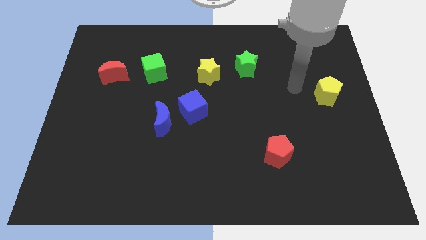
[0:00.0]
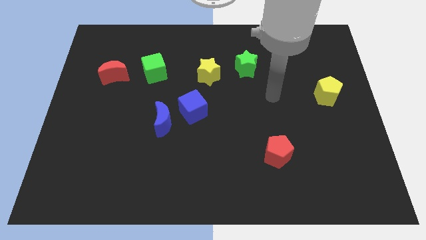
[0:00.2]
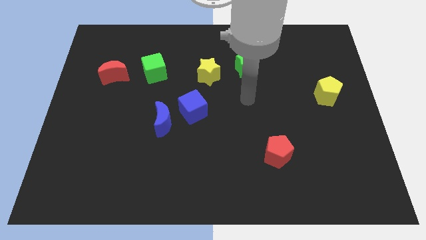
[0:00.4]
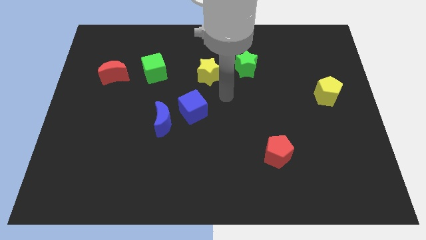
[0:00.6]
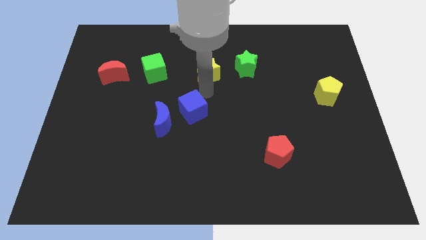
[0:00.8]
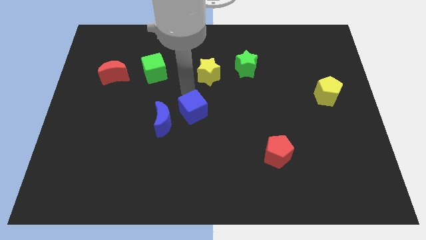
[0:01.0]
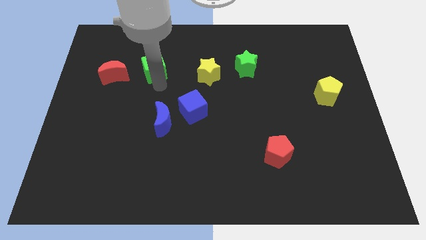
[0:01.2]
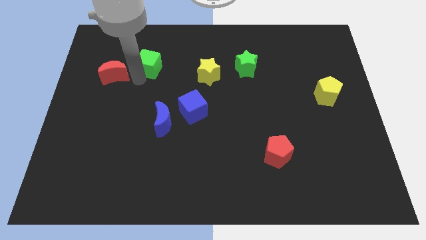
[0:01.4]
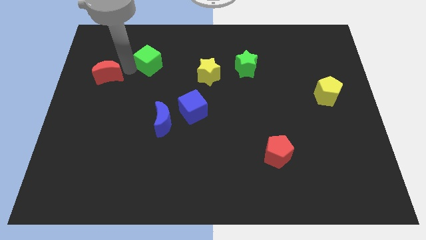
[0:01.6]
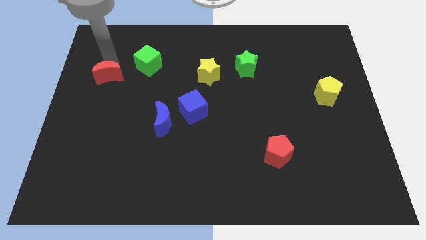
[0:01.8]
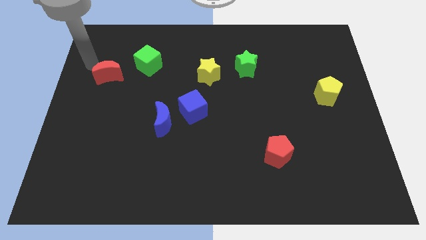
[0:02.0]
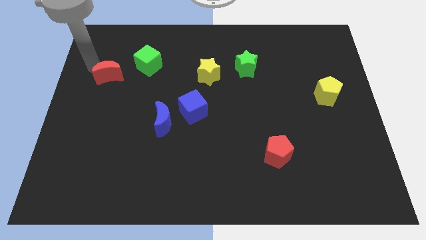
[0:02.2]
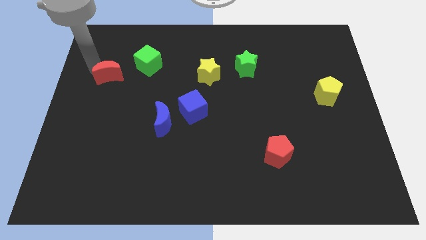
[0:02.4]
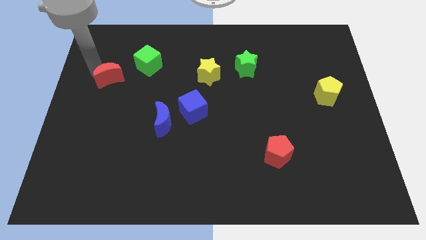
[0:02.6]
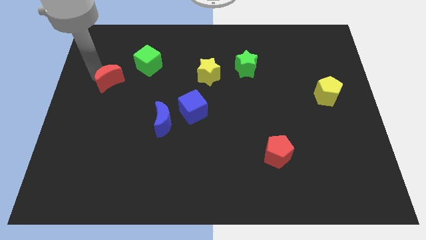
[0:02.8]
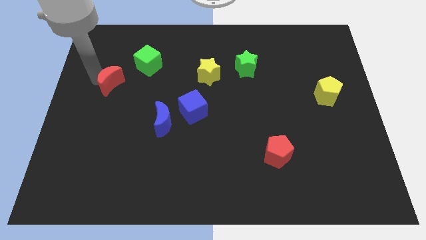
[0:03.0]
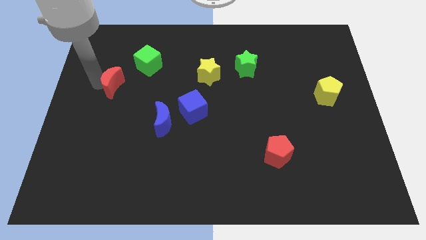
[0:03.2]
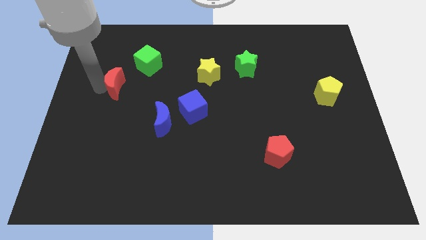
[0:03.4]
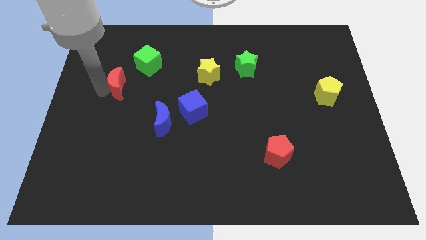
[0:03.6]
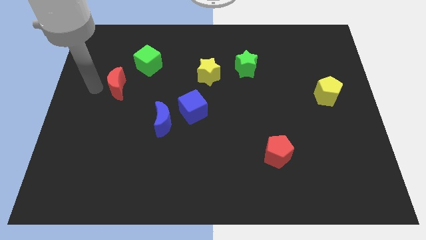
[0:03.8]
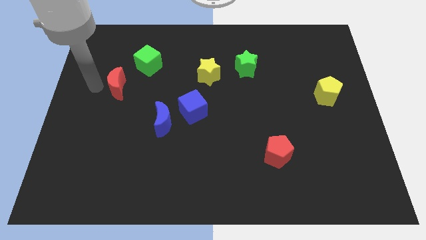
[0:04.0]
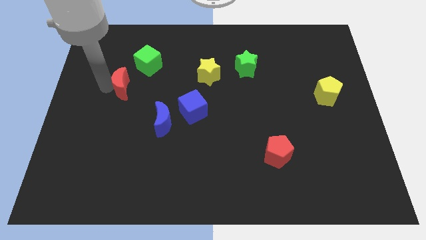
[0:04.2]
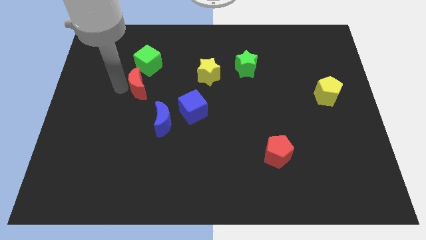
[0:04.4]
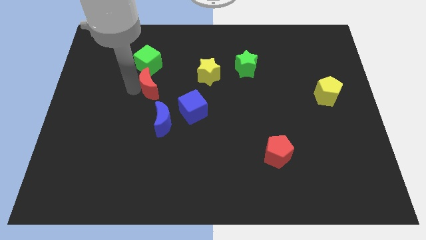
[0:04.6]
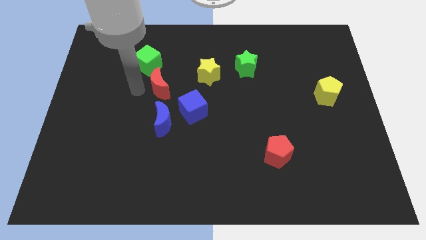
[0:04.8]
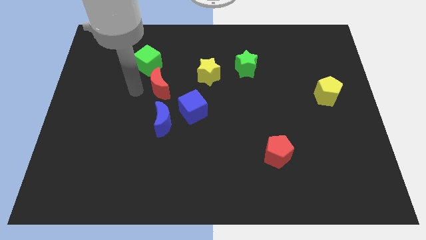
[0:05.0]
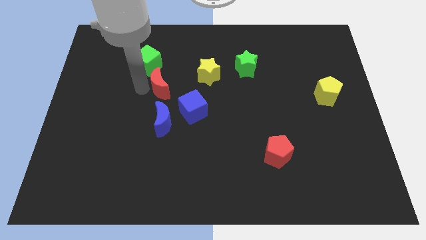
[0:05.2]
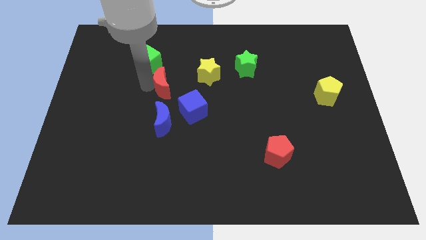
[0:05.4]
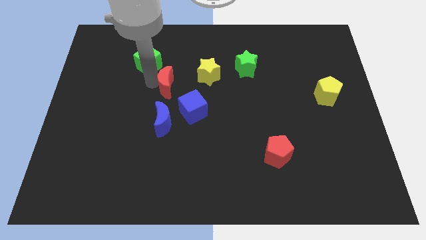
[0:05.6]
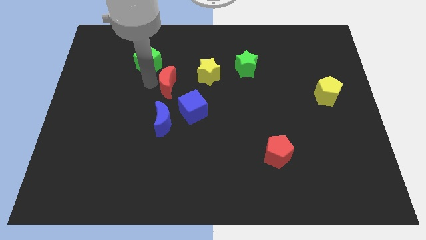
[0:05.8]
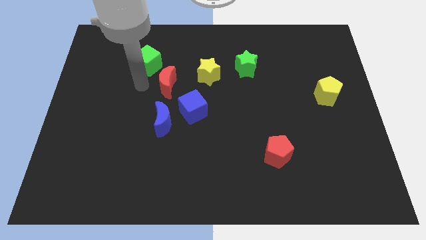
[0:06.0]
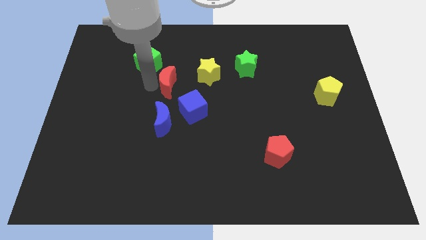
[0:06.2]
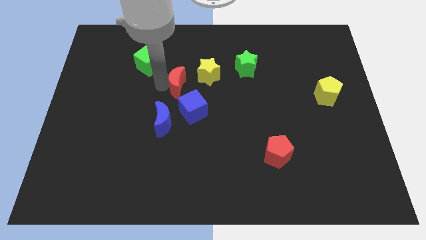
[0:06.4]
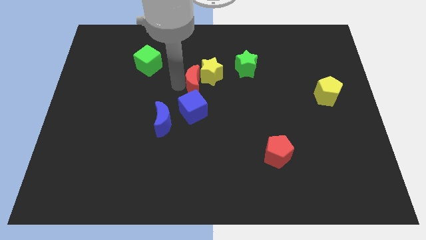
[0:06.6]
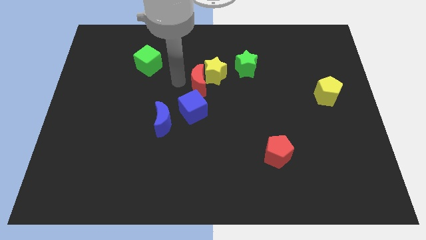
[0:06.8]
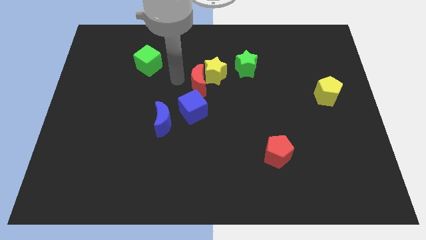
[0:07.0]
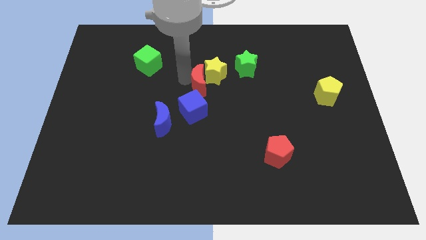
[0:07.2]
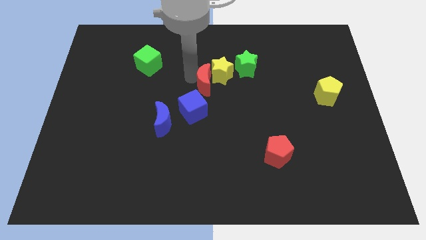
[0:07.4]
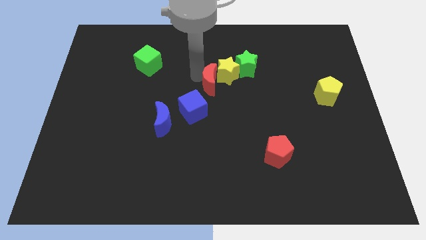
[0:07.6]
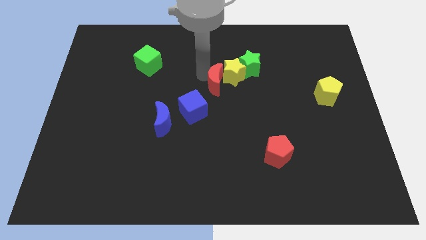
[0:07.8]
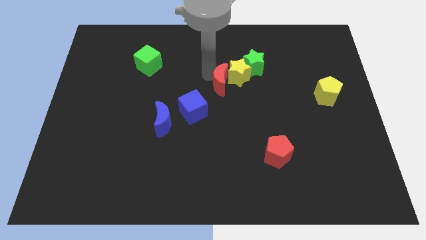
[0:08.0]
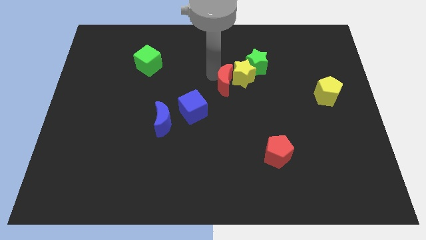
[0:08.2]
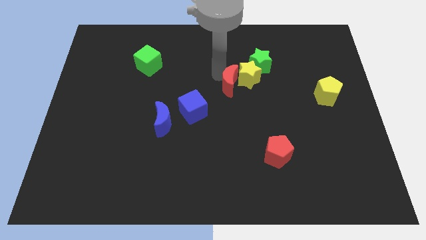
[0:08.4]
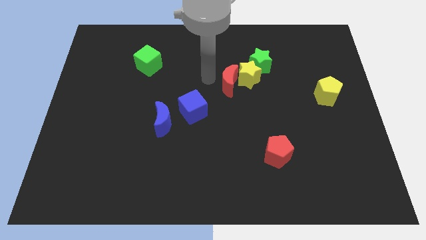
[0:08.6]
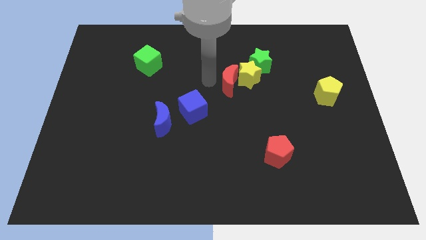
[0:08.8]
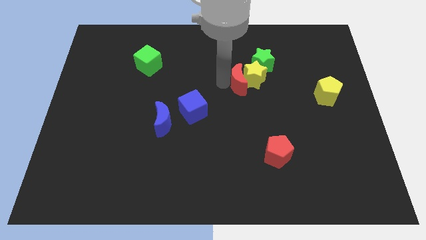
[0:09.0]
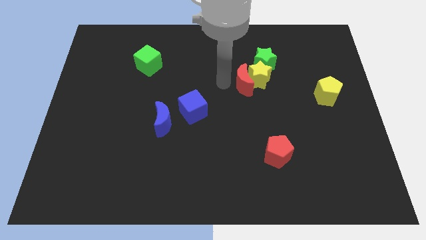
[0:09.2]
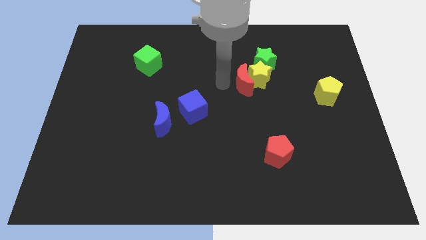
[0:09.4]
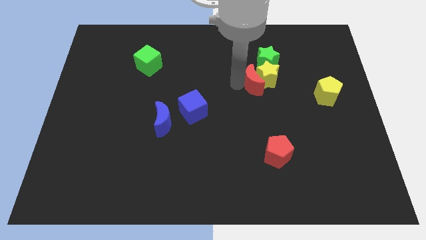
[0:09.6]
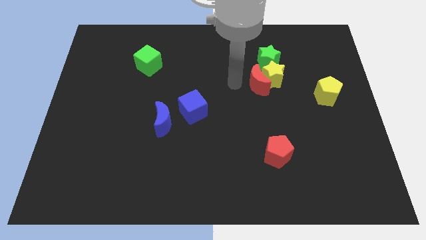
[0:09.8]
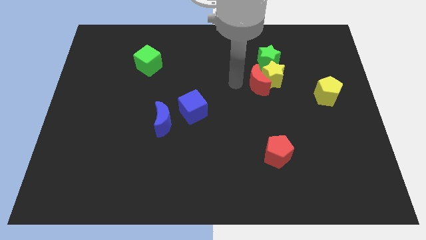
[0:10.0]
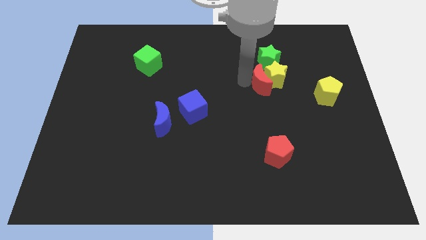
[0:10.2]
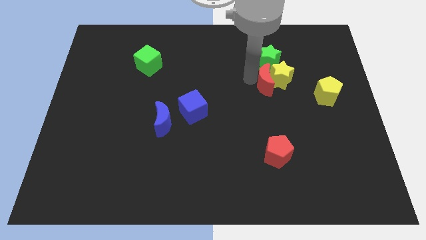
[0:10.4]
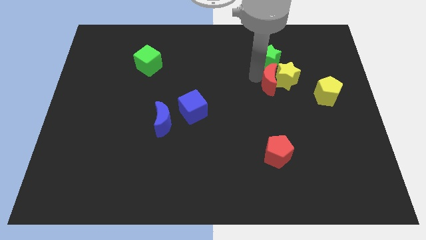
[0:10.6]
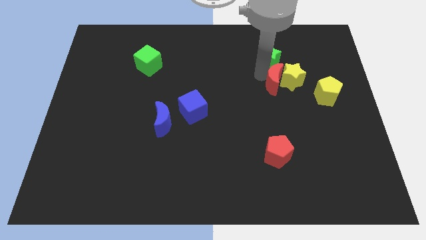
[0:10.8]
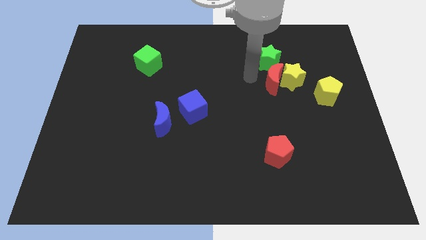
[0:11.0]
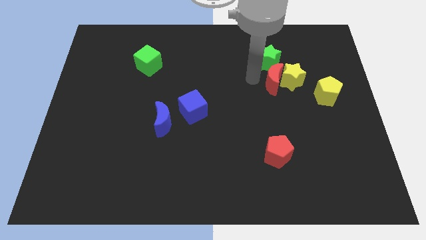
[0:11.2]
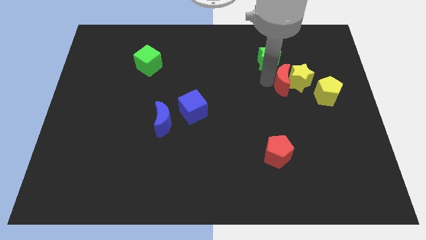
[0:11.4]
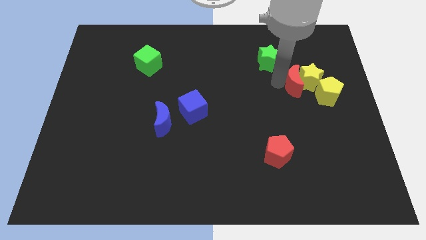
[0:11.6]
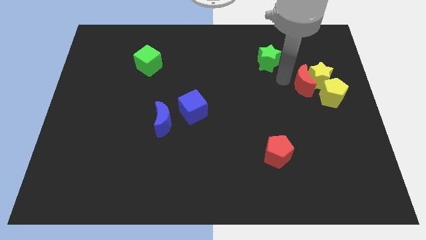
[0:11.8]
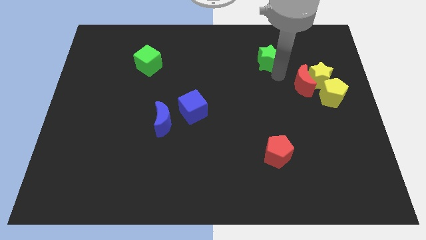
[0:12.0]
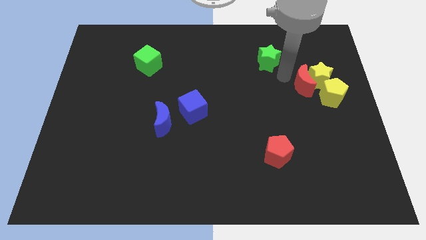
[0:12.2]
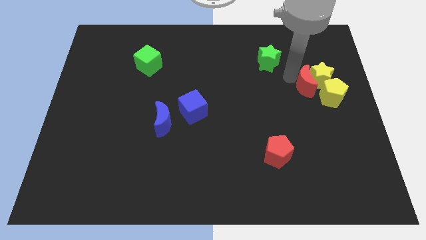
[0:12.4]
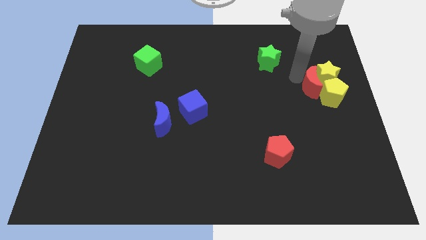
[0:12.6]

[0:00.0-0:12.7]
push the red moon close to the yellow pentagon

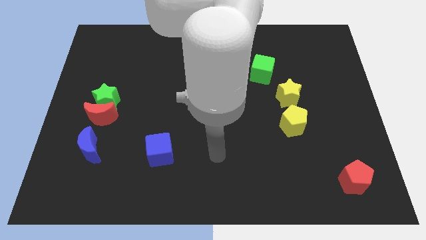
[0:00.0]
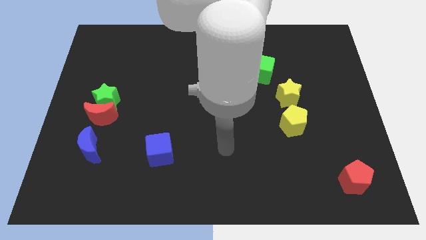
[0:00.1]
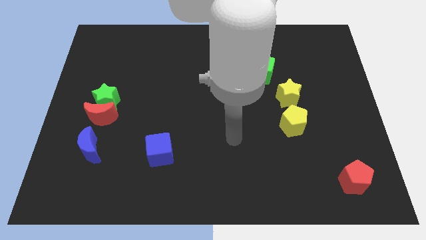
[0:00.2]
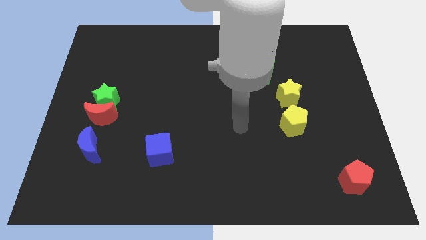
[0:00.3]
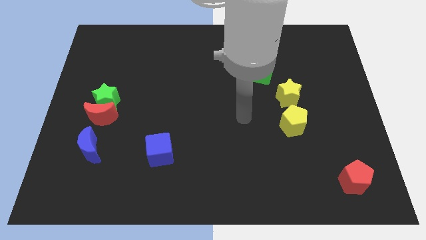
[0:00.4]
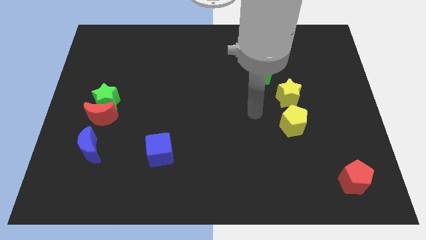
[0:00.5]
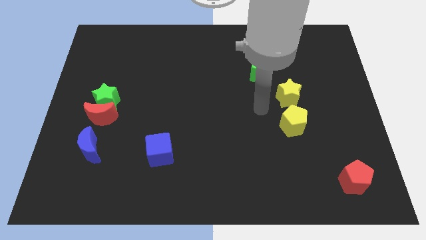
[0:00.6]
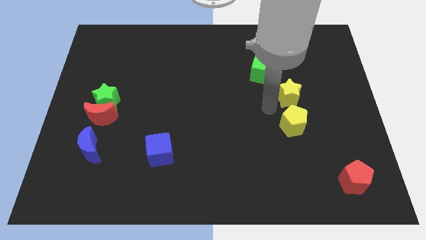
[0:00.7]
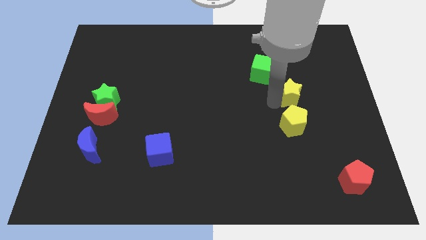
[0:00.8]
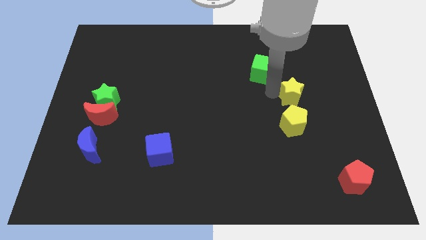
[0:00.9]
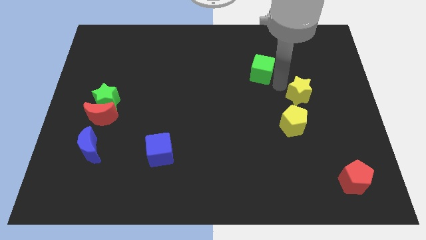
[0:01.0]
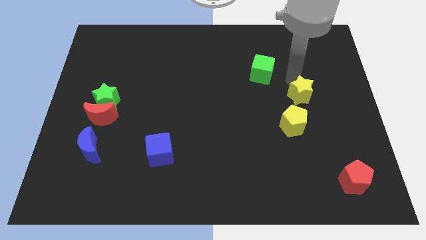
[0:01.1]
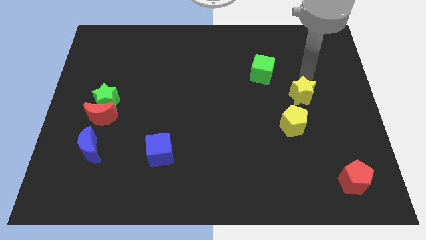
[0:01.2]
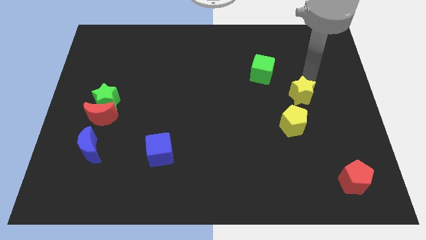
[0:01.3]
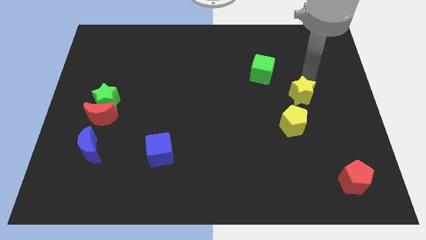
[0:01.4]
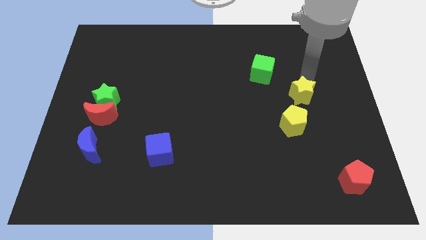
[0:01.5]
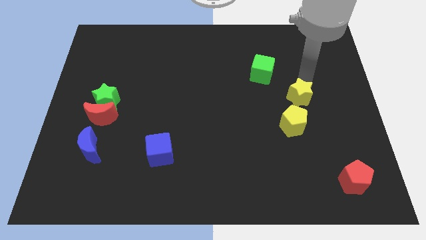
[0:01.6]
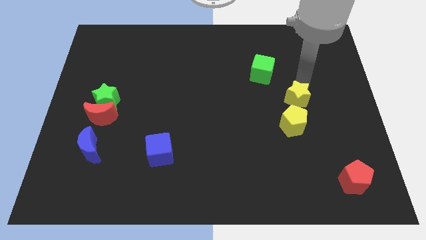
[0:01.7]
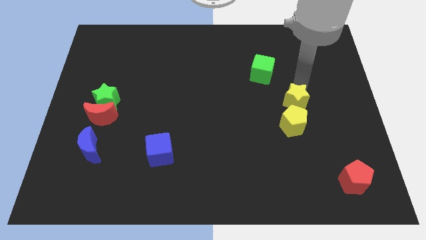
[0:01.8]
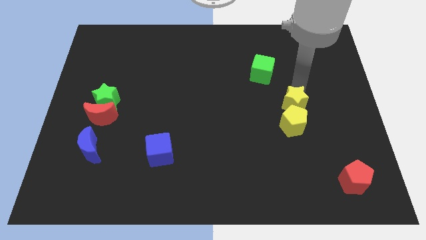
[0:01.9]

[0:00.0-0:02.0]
slide the yellow star towards the yellow pentagon
